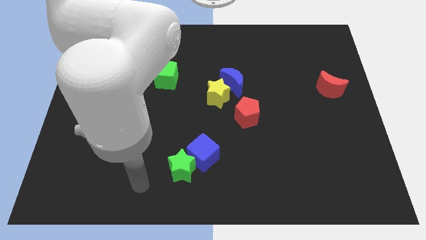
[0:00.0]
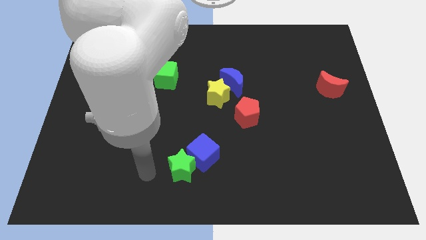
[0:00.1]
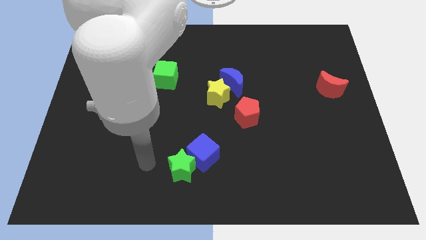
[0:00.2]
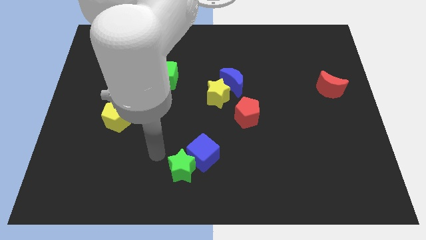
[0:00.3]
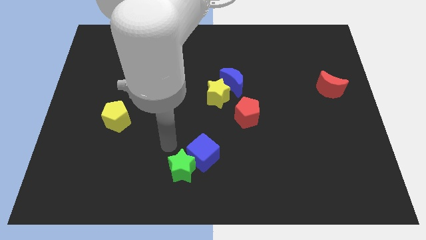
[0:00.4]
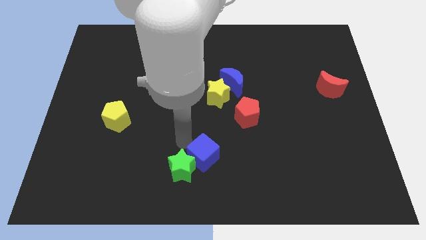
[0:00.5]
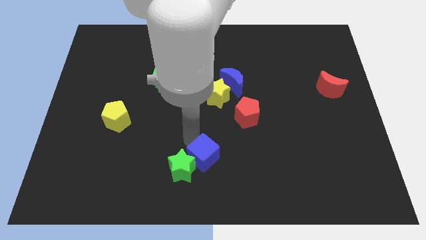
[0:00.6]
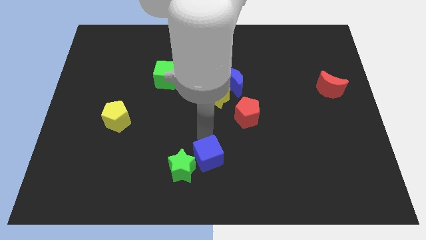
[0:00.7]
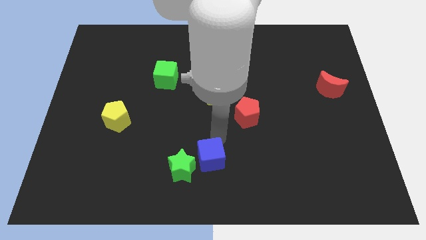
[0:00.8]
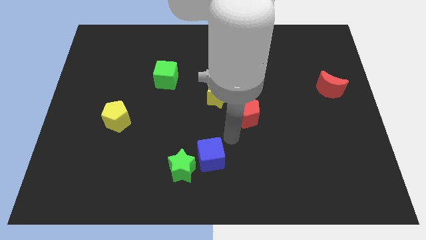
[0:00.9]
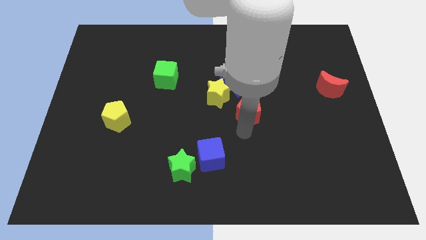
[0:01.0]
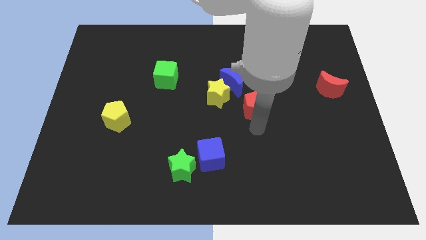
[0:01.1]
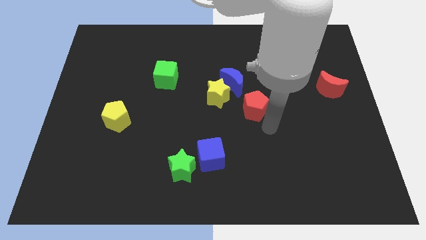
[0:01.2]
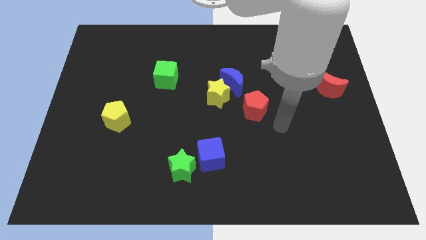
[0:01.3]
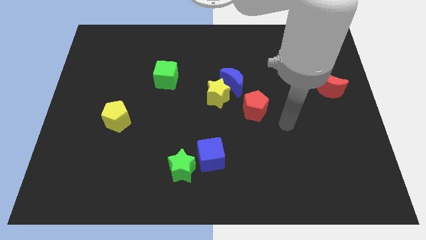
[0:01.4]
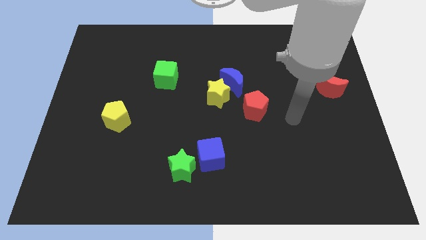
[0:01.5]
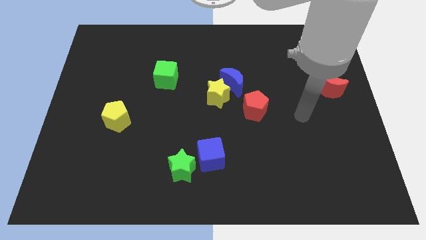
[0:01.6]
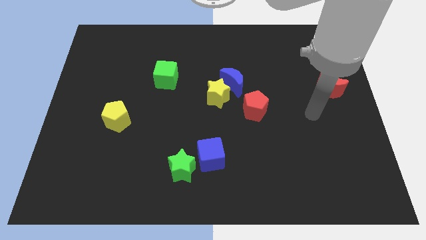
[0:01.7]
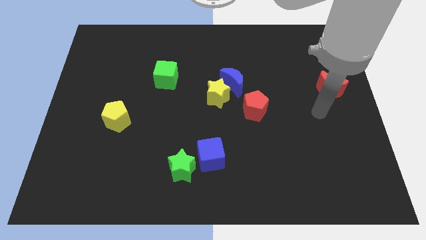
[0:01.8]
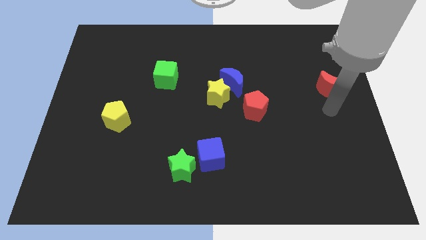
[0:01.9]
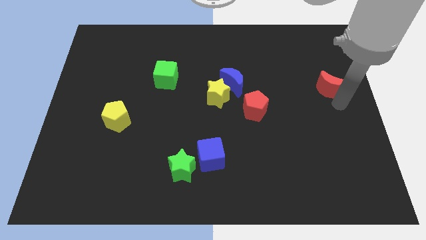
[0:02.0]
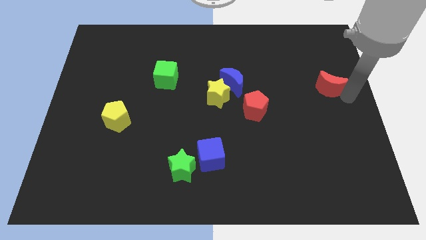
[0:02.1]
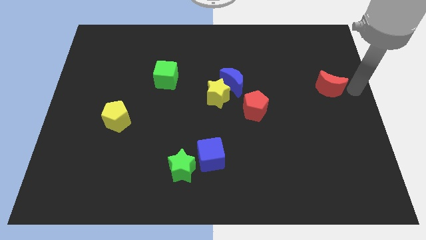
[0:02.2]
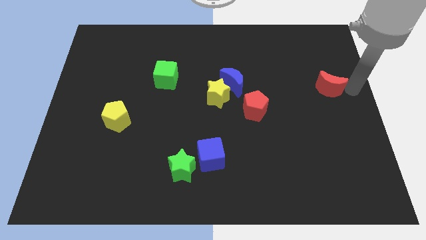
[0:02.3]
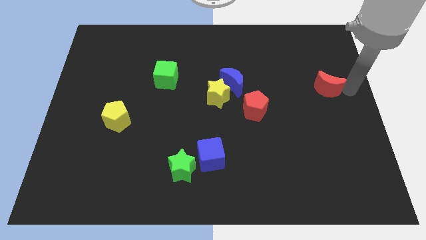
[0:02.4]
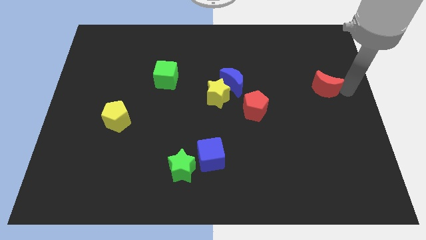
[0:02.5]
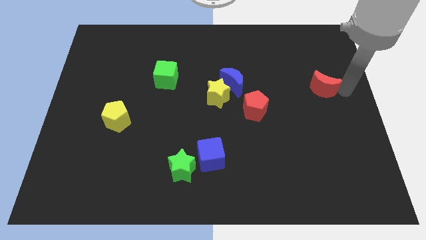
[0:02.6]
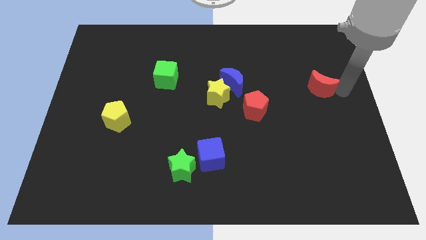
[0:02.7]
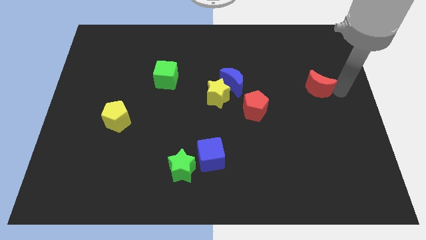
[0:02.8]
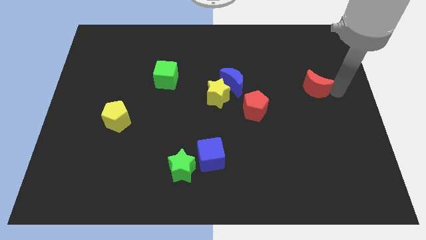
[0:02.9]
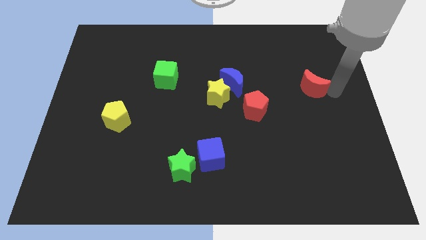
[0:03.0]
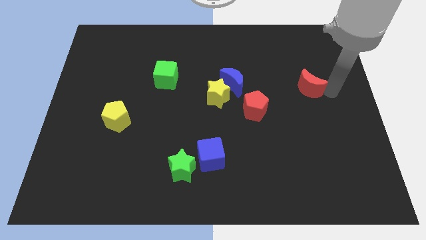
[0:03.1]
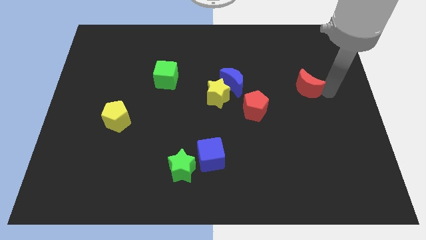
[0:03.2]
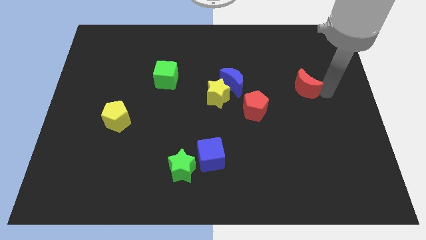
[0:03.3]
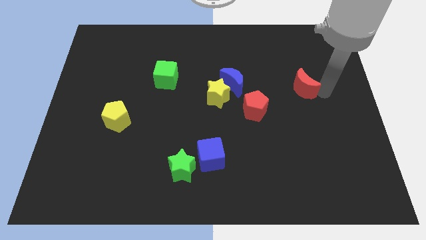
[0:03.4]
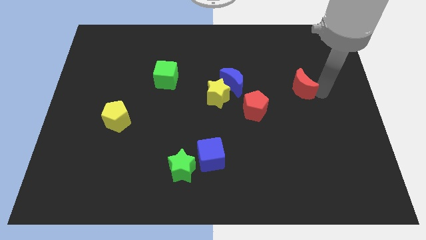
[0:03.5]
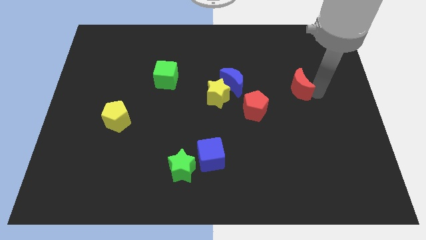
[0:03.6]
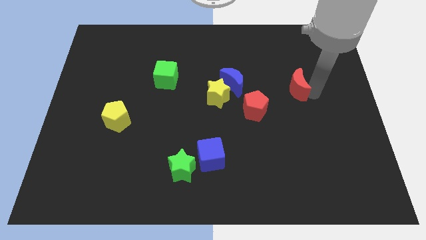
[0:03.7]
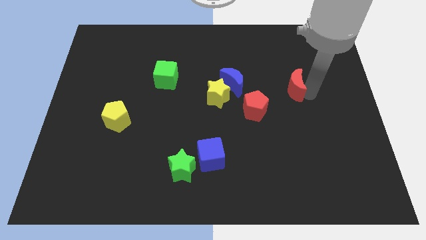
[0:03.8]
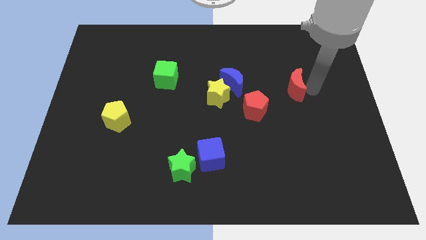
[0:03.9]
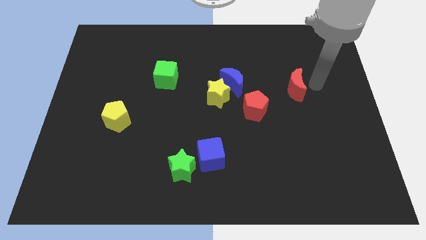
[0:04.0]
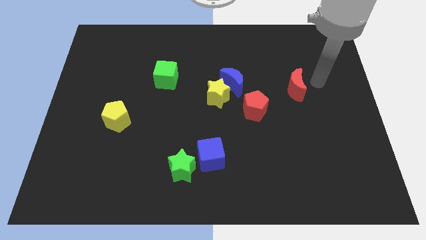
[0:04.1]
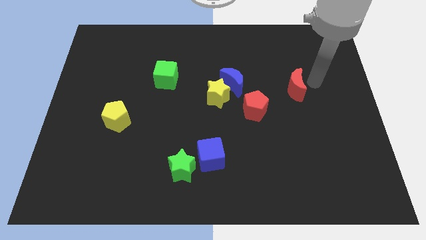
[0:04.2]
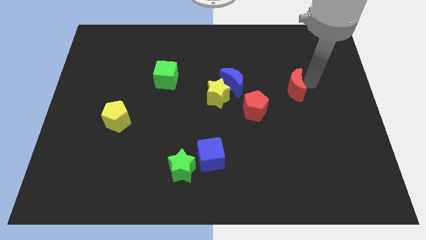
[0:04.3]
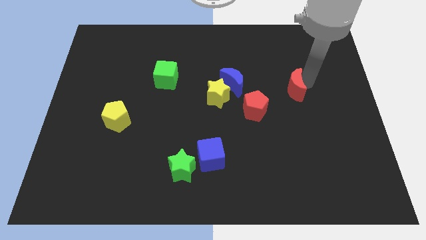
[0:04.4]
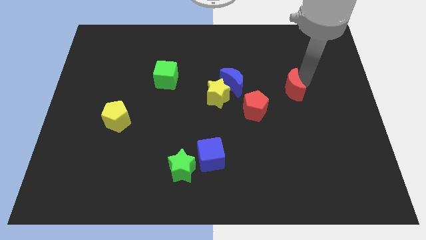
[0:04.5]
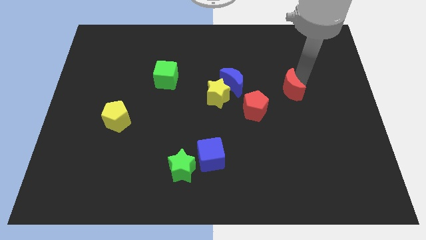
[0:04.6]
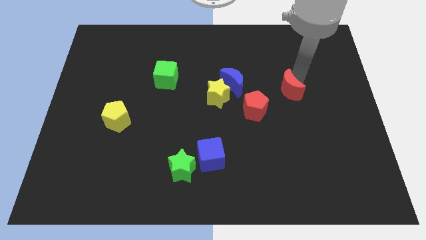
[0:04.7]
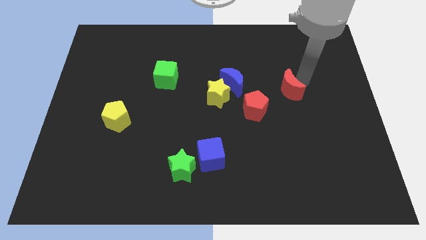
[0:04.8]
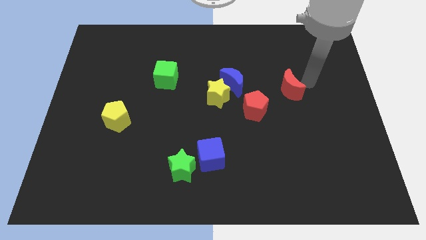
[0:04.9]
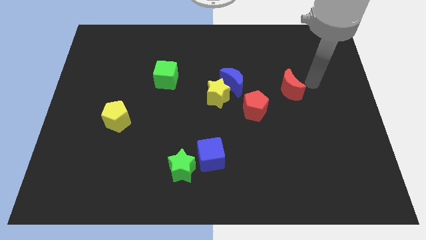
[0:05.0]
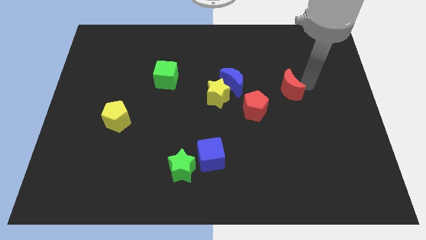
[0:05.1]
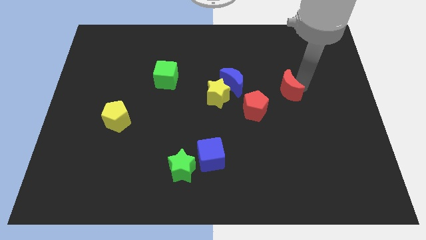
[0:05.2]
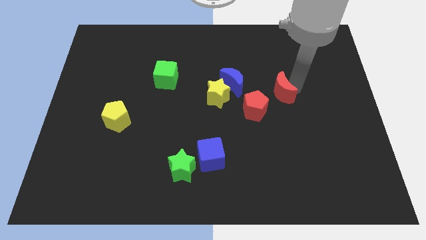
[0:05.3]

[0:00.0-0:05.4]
move the red moon right of the yellow star

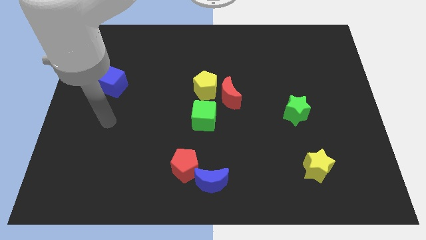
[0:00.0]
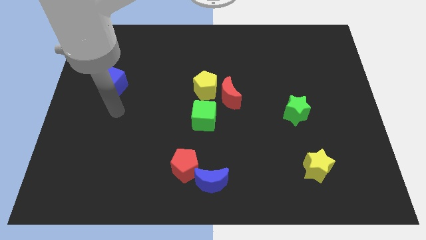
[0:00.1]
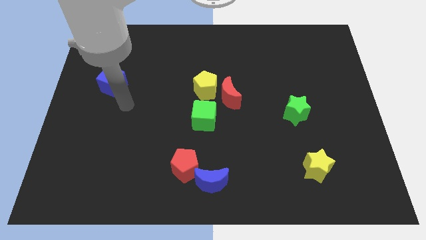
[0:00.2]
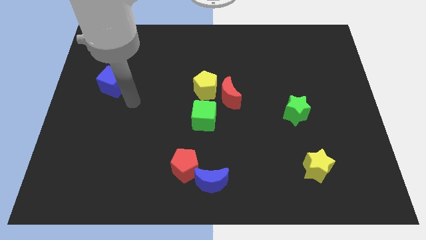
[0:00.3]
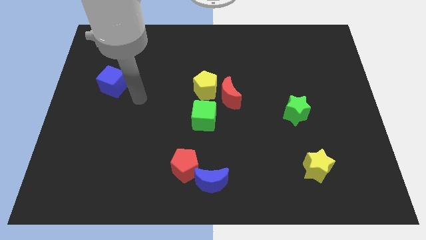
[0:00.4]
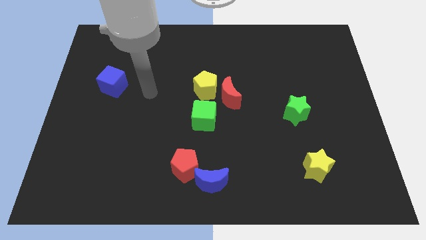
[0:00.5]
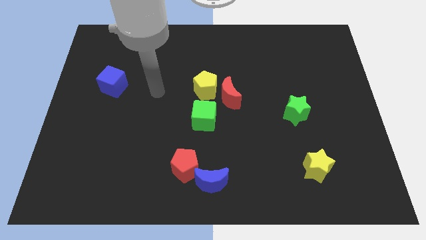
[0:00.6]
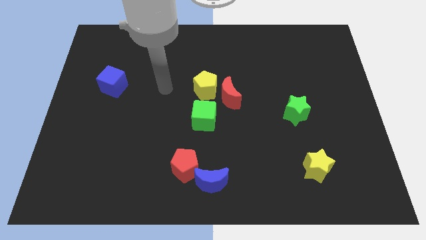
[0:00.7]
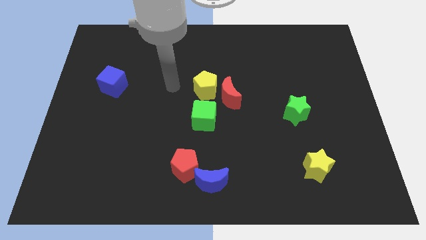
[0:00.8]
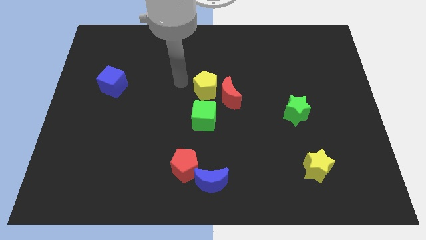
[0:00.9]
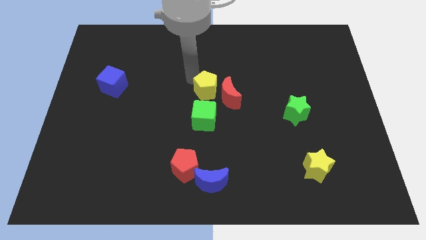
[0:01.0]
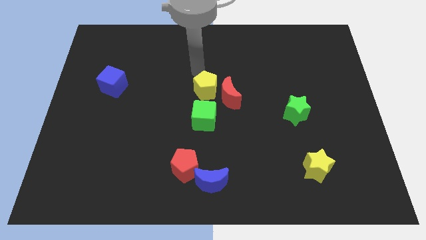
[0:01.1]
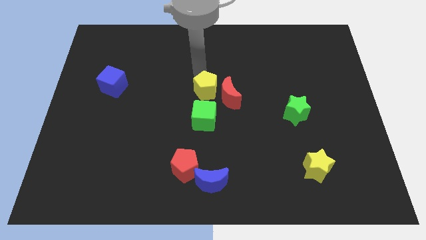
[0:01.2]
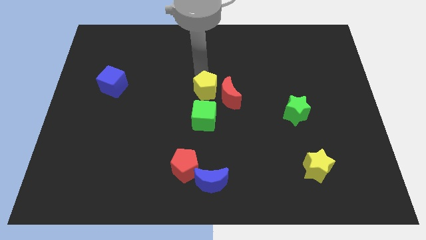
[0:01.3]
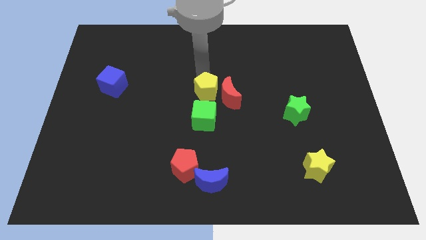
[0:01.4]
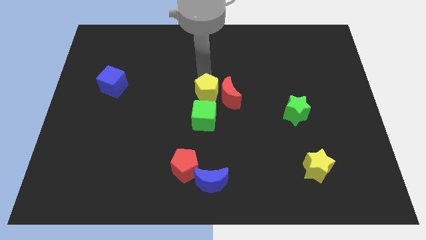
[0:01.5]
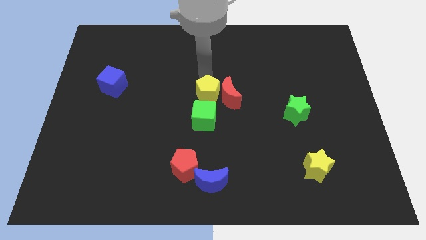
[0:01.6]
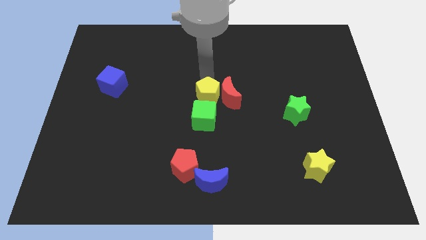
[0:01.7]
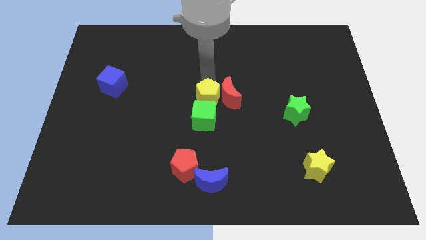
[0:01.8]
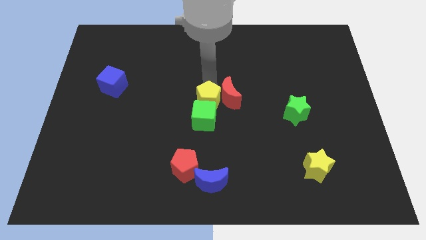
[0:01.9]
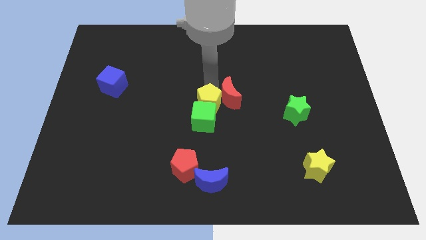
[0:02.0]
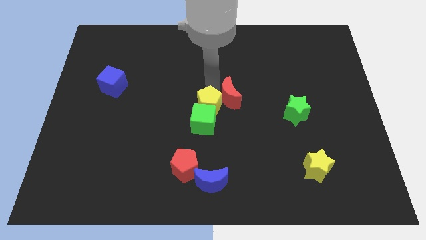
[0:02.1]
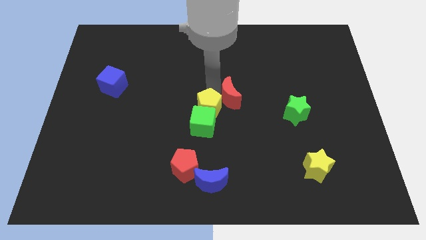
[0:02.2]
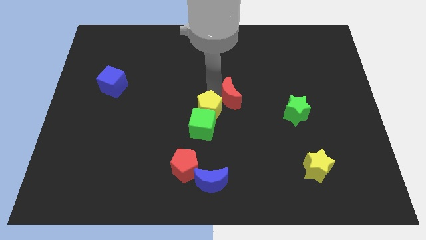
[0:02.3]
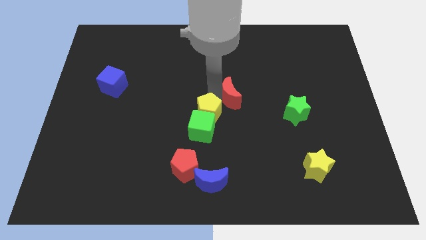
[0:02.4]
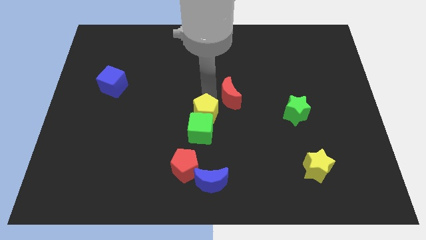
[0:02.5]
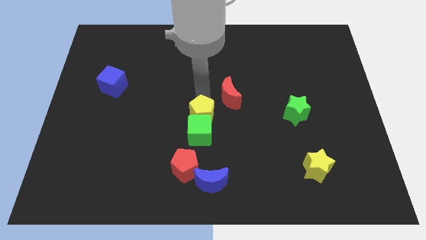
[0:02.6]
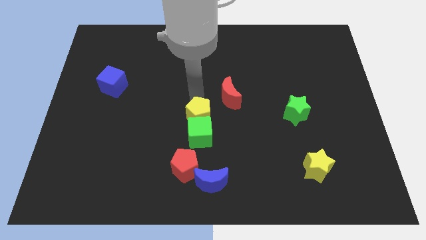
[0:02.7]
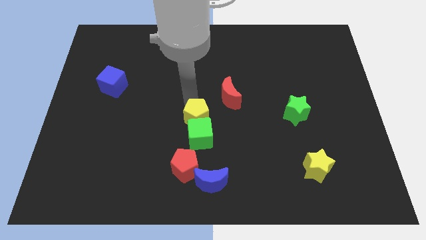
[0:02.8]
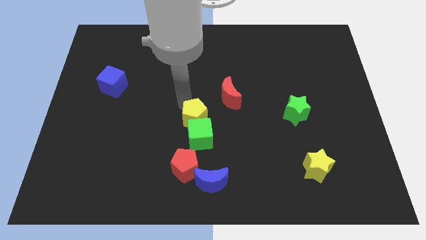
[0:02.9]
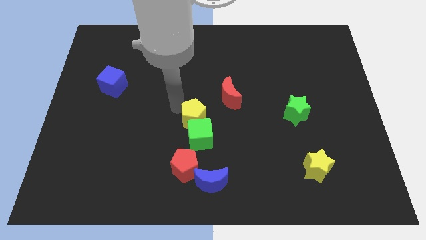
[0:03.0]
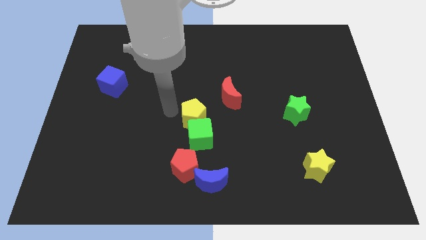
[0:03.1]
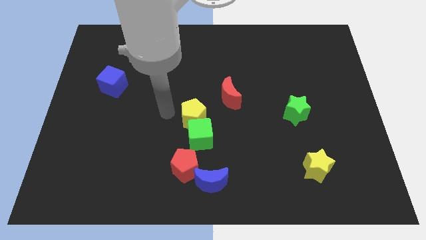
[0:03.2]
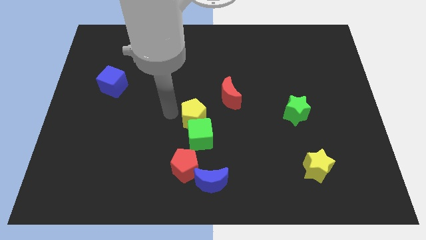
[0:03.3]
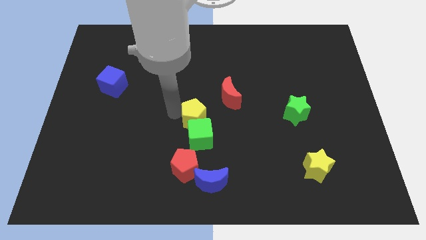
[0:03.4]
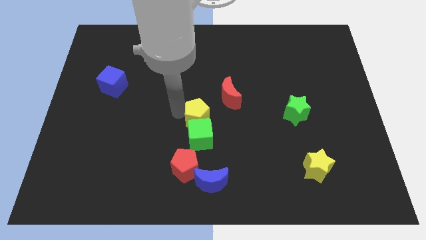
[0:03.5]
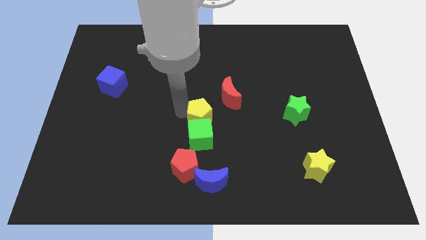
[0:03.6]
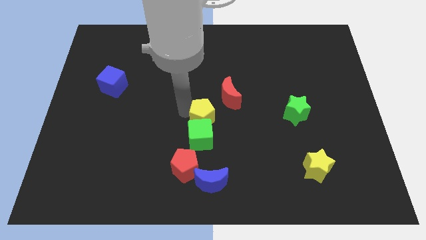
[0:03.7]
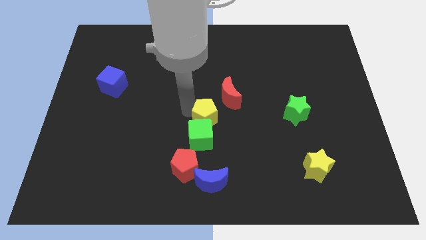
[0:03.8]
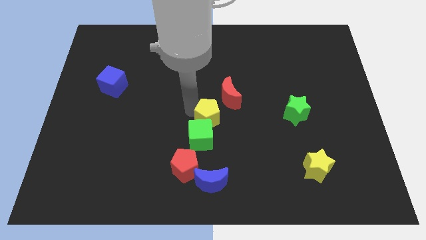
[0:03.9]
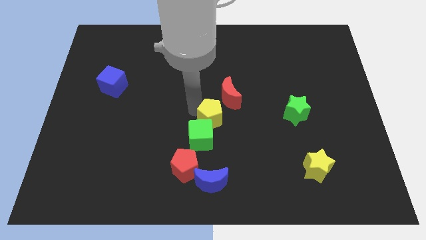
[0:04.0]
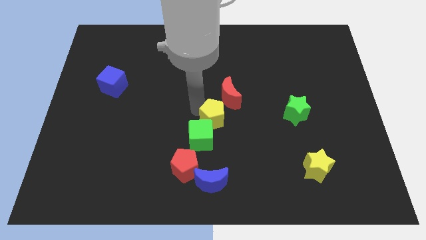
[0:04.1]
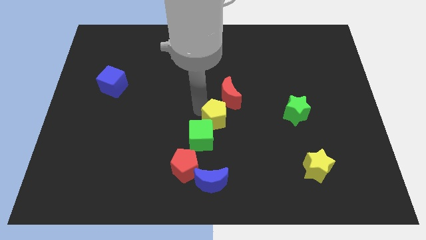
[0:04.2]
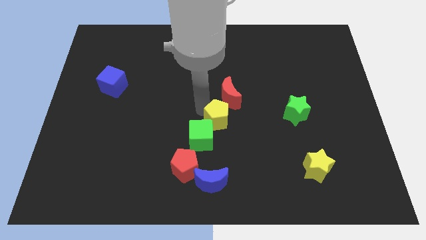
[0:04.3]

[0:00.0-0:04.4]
push the yellow pentagon to the top side of the blue moon
